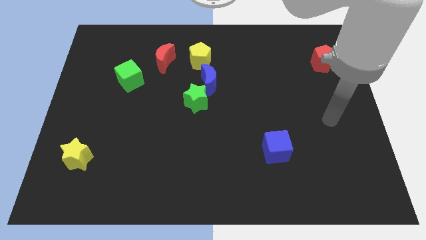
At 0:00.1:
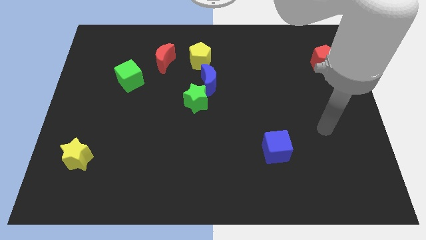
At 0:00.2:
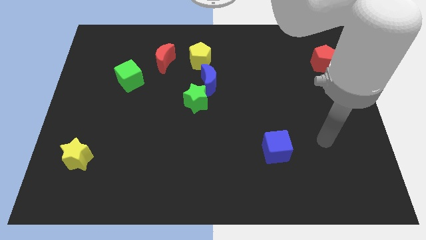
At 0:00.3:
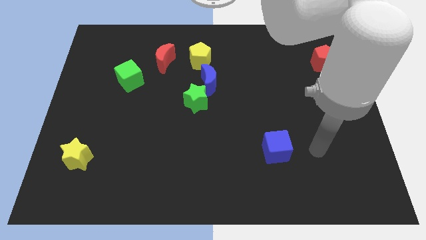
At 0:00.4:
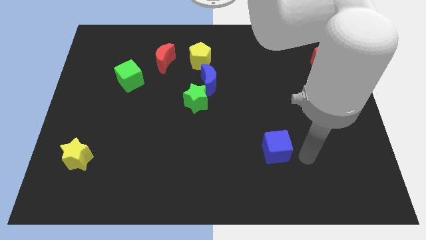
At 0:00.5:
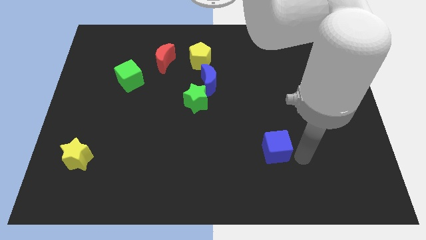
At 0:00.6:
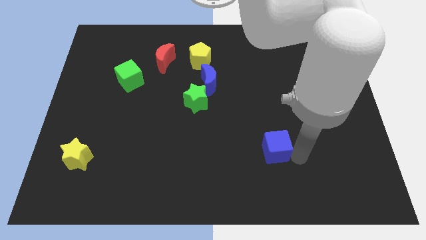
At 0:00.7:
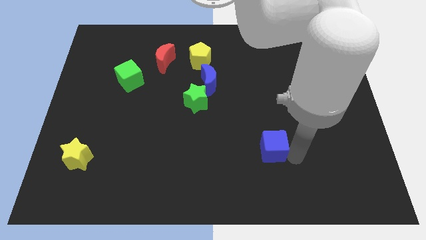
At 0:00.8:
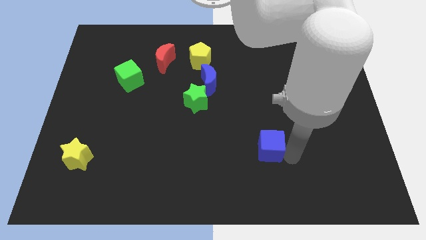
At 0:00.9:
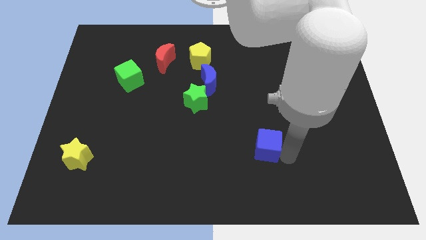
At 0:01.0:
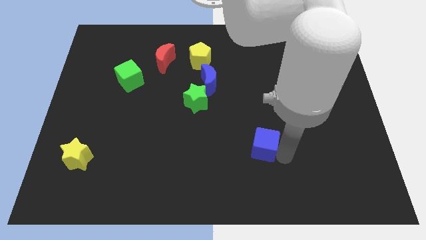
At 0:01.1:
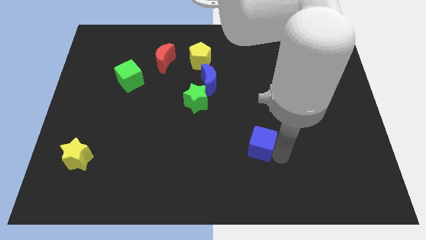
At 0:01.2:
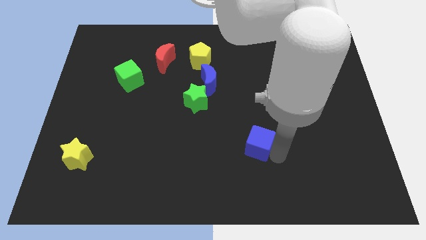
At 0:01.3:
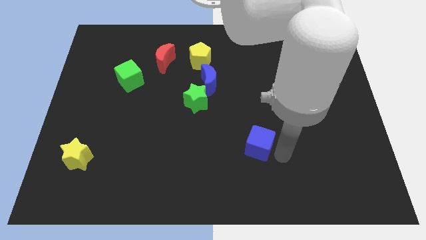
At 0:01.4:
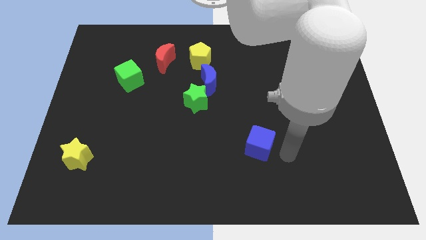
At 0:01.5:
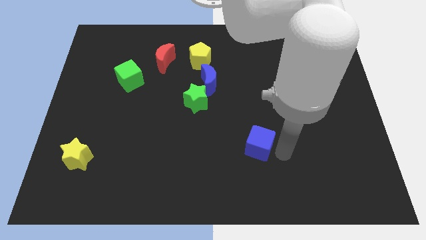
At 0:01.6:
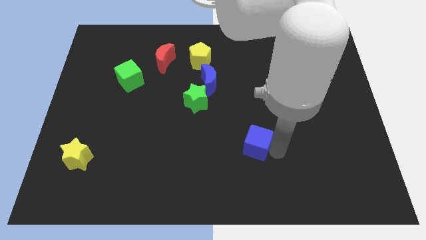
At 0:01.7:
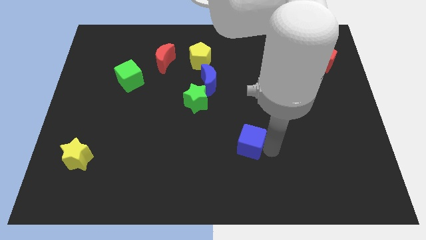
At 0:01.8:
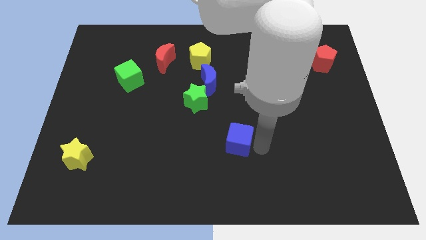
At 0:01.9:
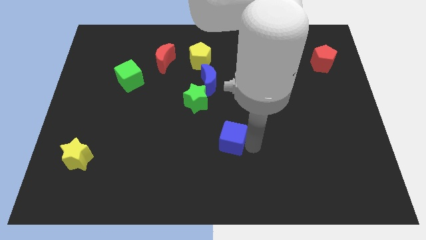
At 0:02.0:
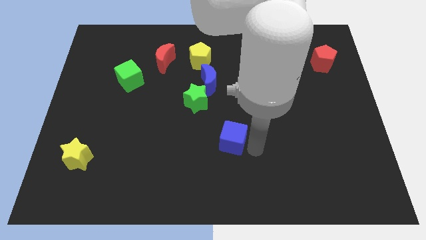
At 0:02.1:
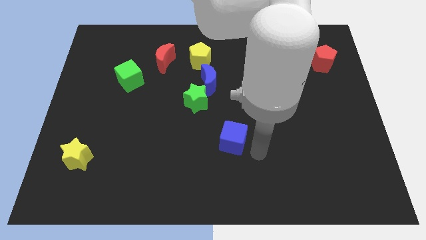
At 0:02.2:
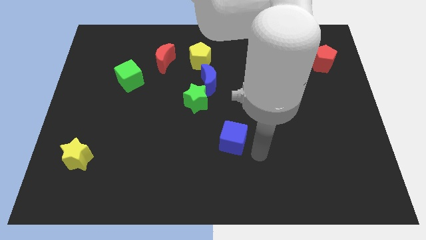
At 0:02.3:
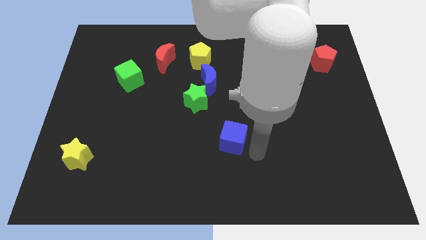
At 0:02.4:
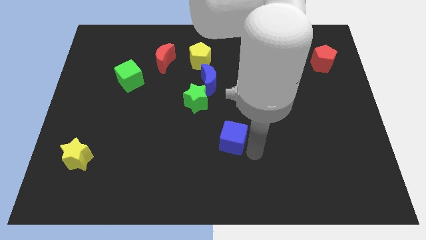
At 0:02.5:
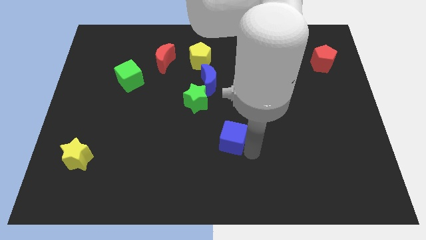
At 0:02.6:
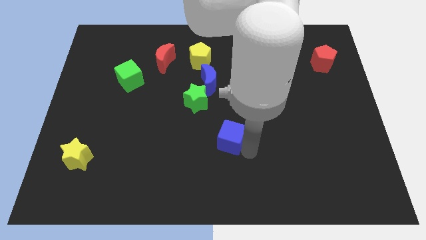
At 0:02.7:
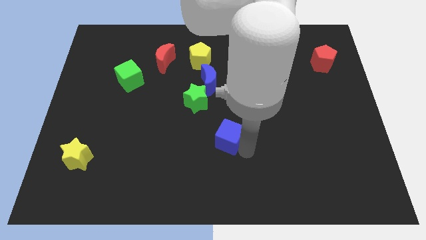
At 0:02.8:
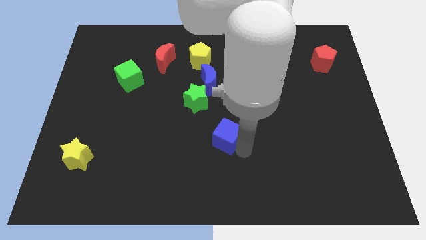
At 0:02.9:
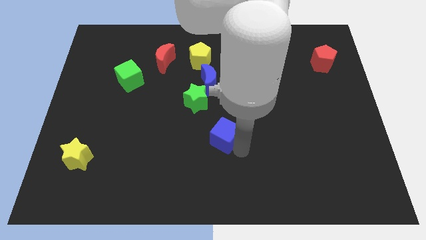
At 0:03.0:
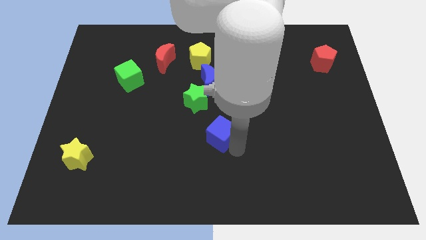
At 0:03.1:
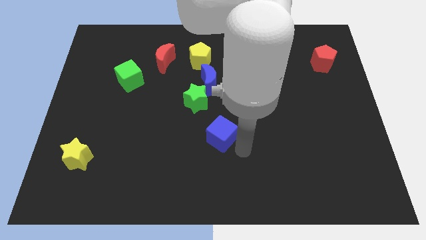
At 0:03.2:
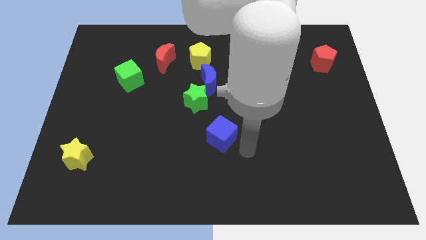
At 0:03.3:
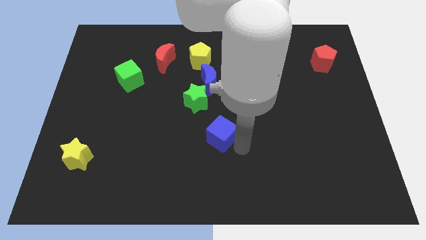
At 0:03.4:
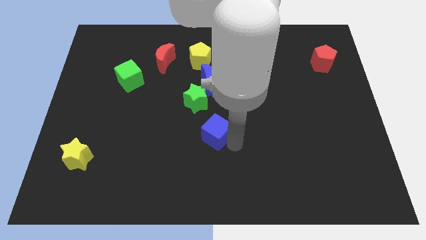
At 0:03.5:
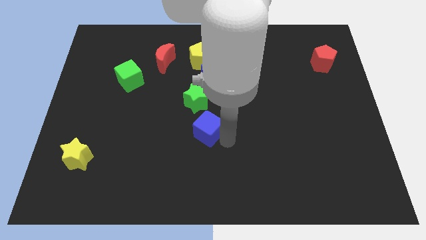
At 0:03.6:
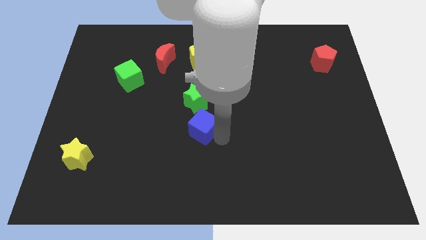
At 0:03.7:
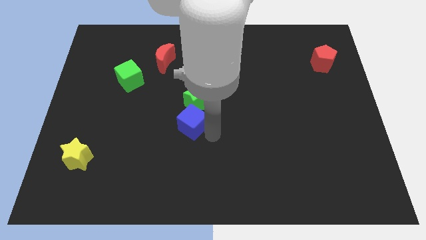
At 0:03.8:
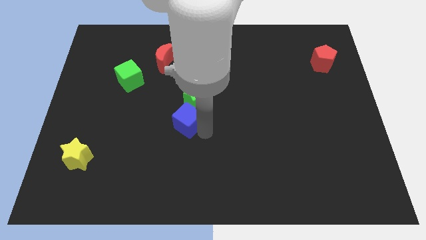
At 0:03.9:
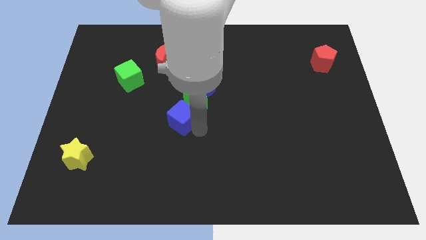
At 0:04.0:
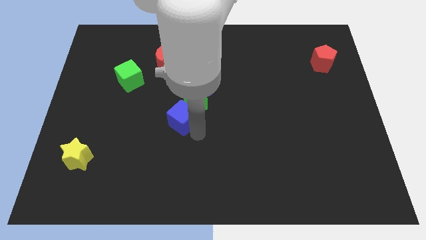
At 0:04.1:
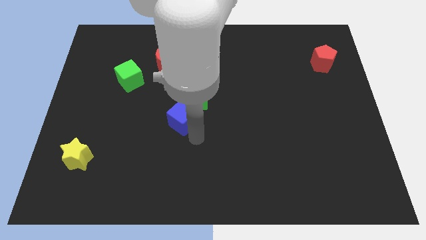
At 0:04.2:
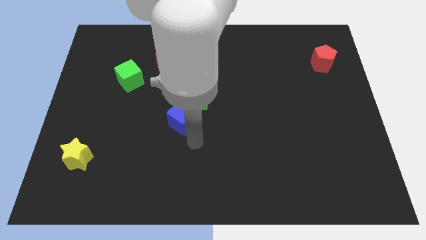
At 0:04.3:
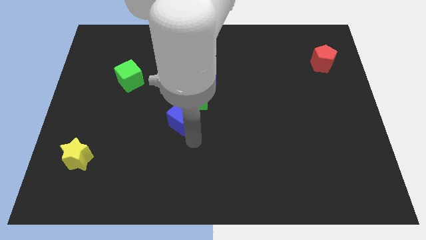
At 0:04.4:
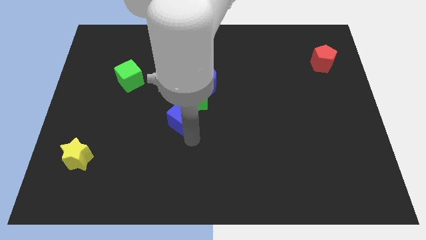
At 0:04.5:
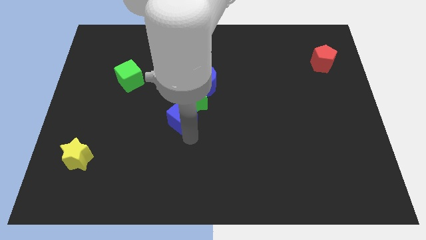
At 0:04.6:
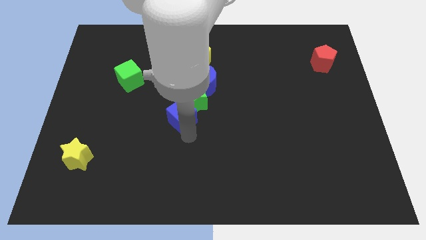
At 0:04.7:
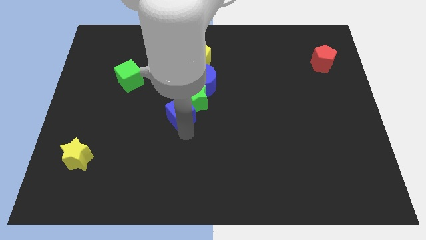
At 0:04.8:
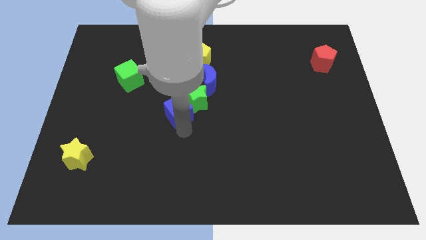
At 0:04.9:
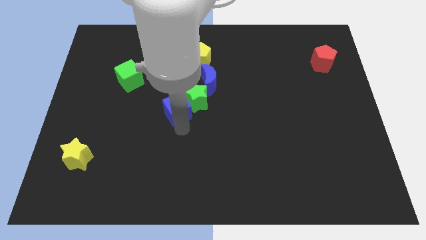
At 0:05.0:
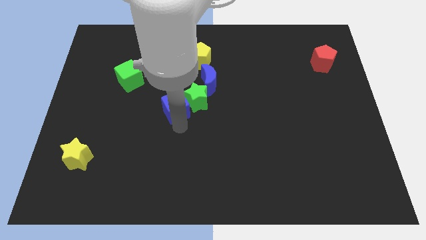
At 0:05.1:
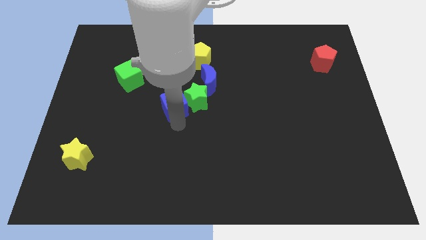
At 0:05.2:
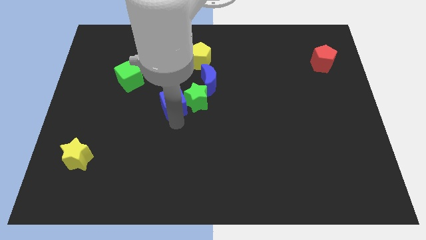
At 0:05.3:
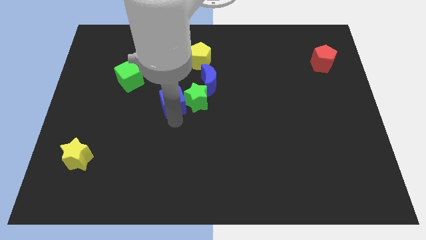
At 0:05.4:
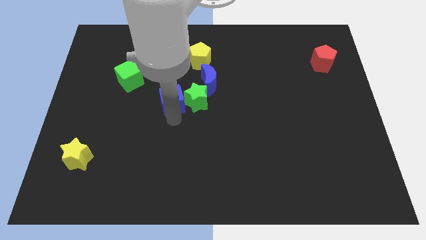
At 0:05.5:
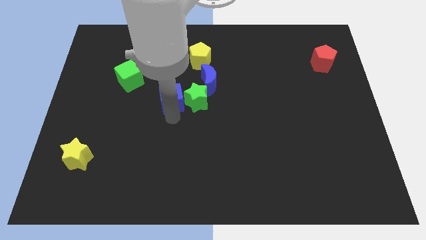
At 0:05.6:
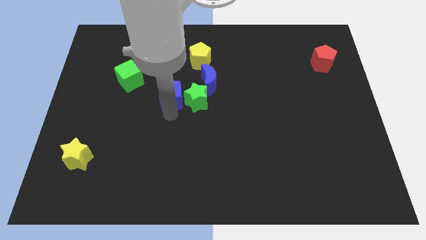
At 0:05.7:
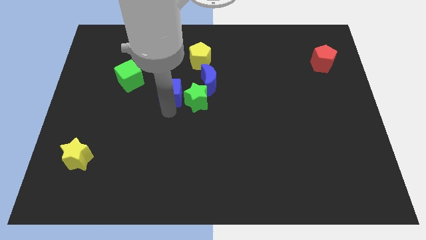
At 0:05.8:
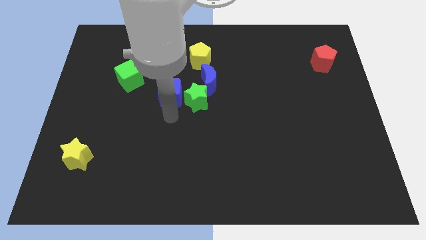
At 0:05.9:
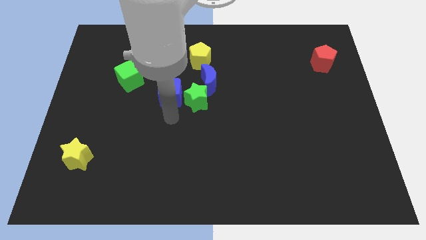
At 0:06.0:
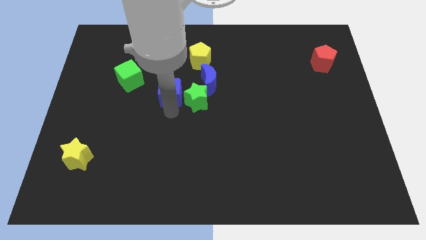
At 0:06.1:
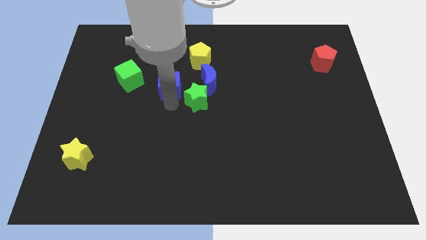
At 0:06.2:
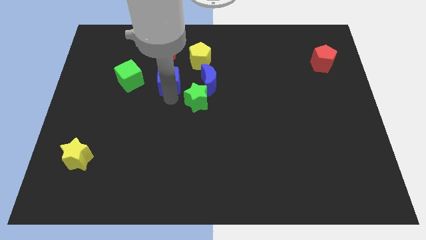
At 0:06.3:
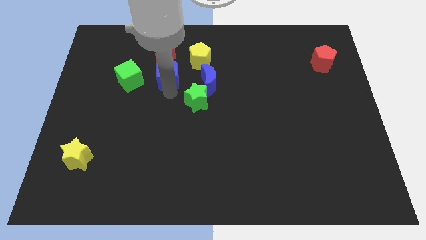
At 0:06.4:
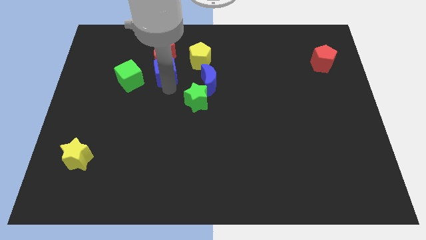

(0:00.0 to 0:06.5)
push the blue cube to the red moon
